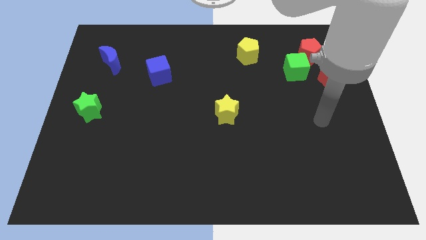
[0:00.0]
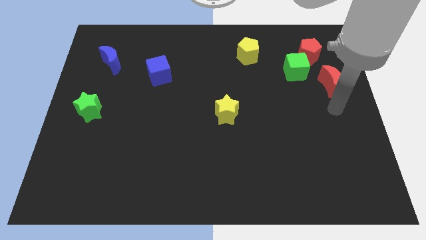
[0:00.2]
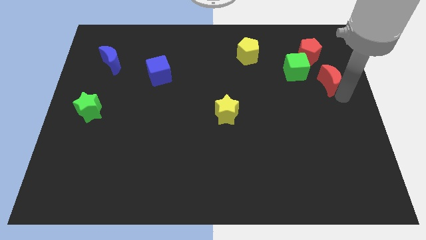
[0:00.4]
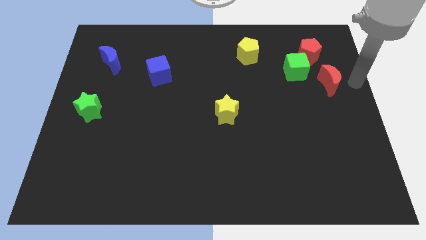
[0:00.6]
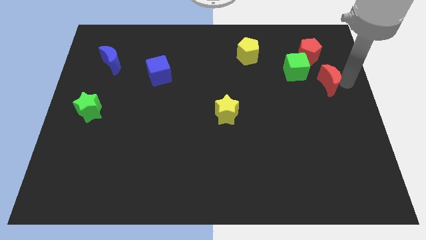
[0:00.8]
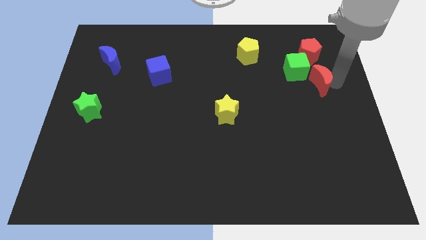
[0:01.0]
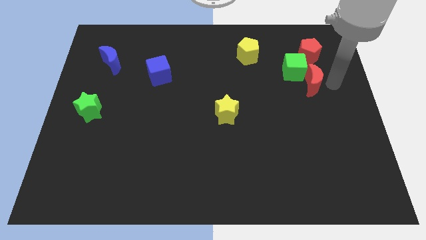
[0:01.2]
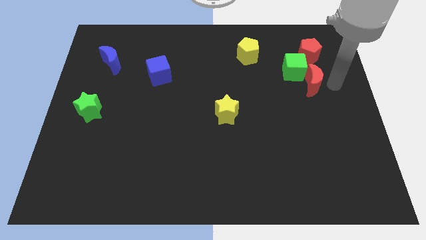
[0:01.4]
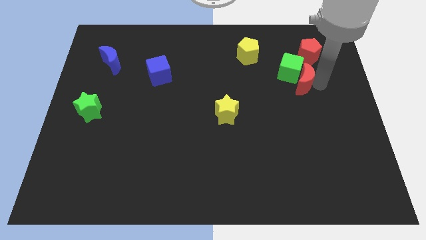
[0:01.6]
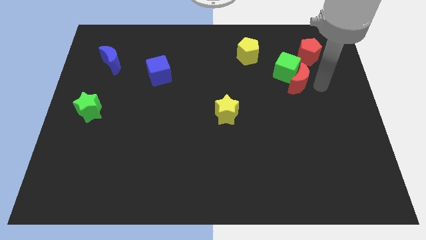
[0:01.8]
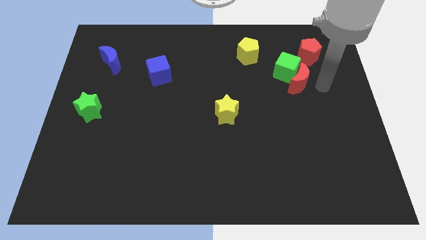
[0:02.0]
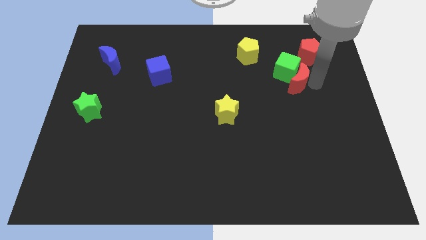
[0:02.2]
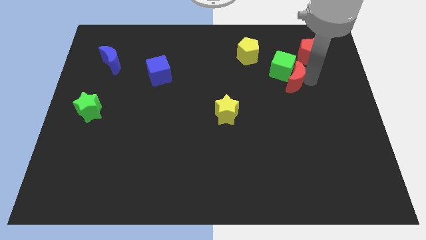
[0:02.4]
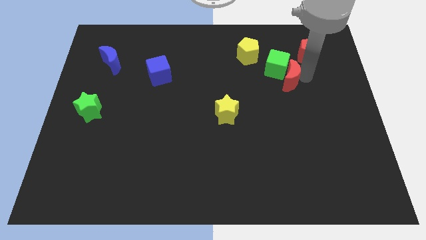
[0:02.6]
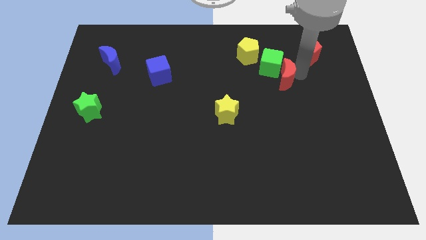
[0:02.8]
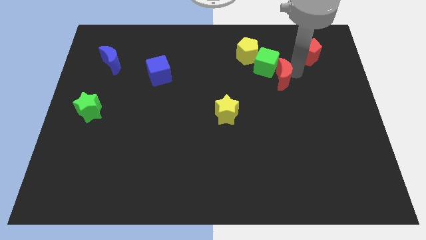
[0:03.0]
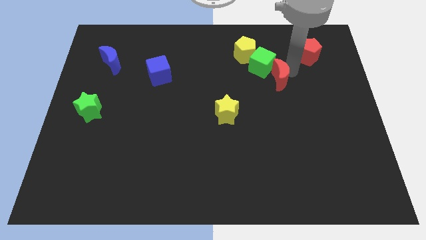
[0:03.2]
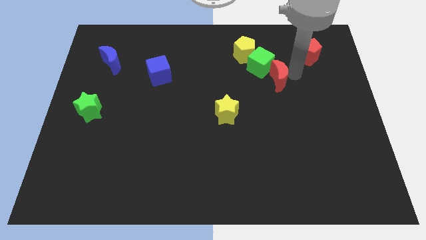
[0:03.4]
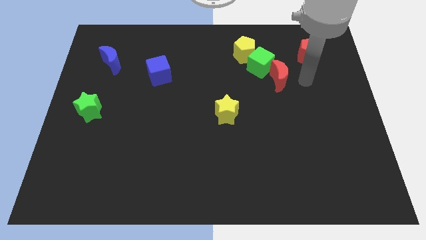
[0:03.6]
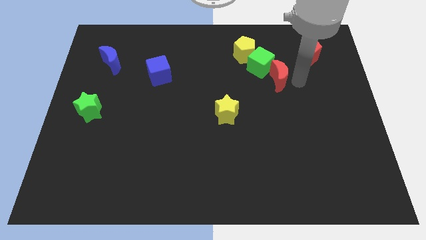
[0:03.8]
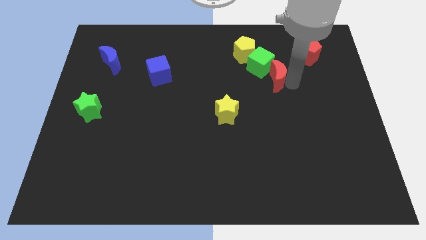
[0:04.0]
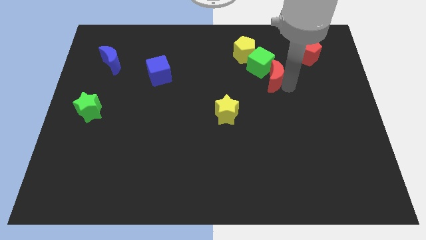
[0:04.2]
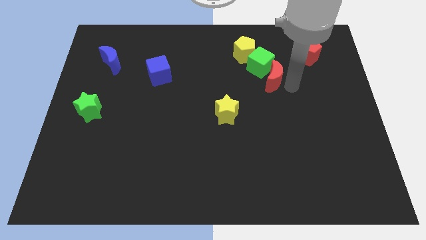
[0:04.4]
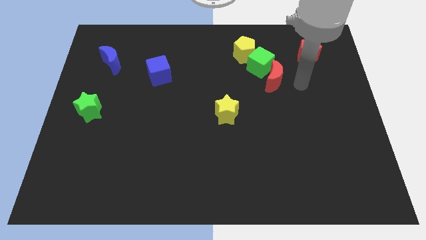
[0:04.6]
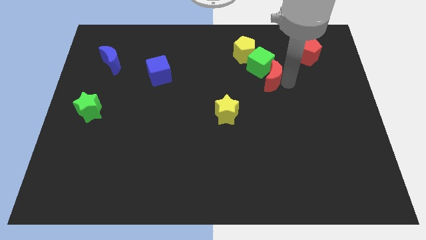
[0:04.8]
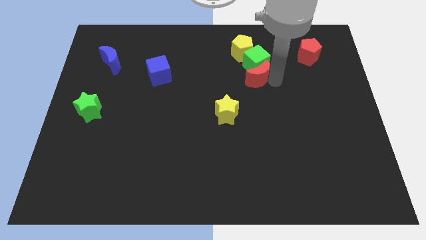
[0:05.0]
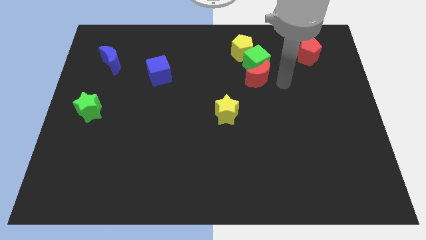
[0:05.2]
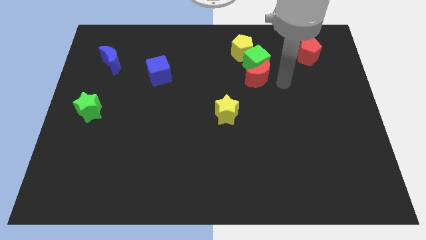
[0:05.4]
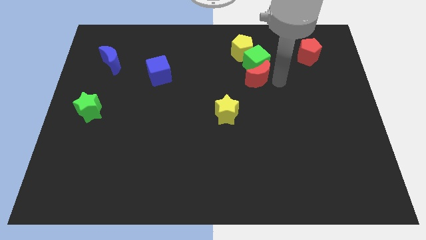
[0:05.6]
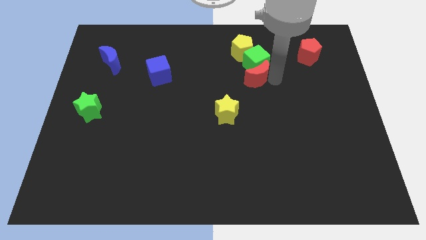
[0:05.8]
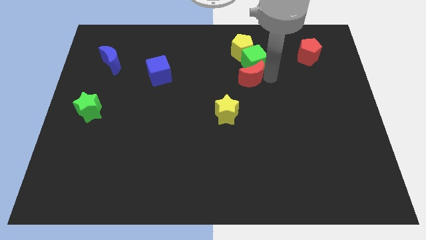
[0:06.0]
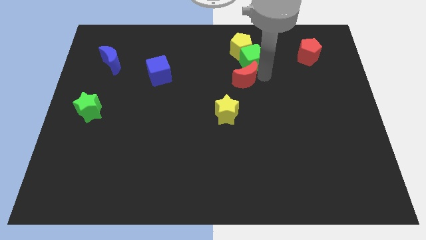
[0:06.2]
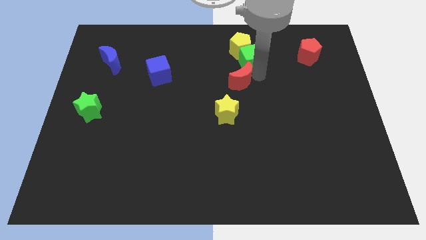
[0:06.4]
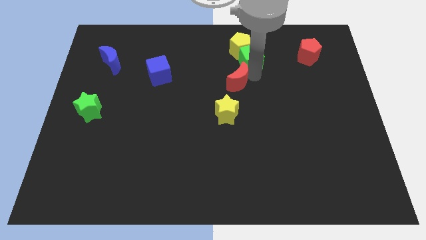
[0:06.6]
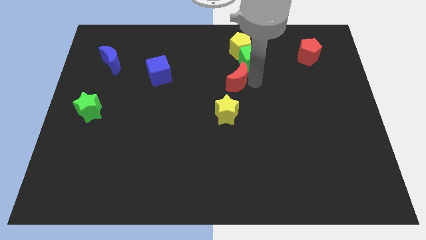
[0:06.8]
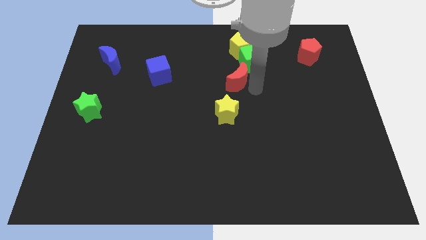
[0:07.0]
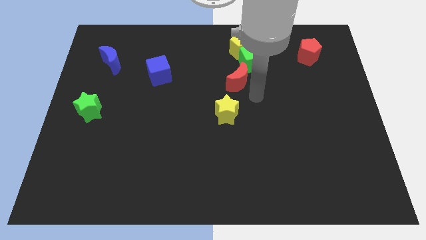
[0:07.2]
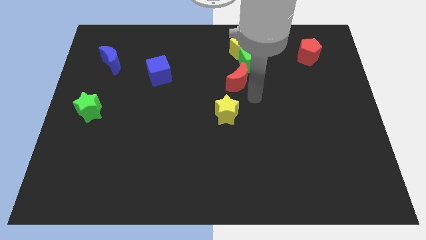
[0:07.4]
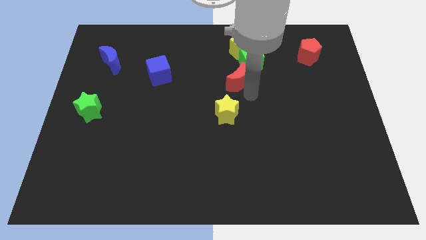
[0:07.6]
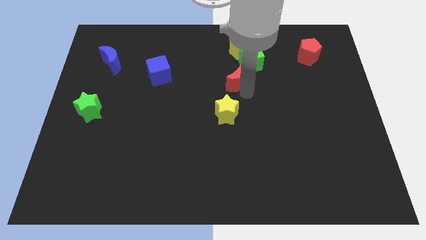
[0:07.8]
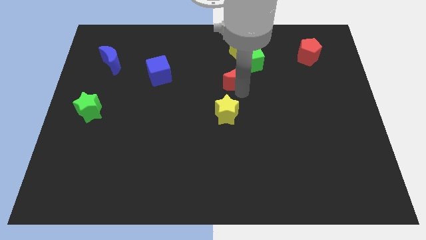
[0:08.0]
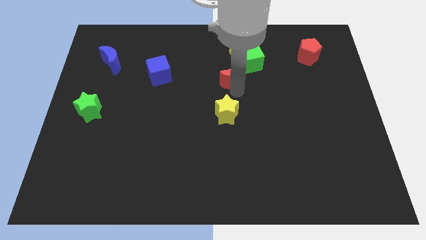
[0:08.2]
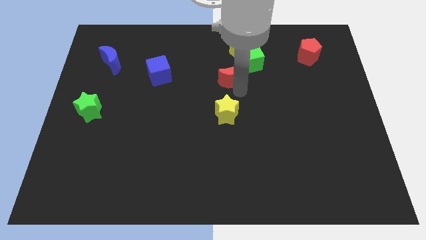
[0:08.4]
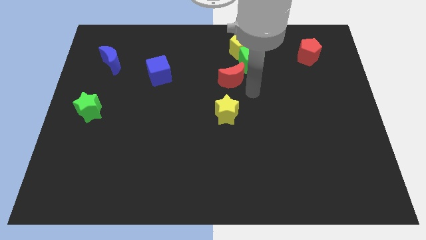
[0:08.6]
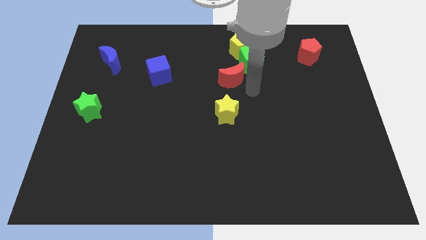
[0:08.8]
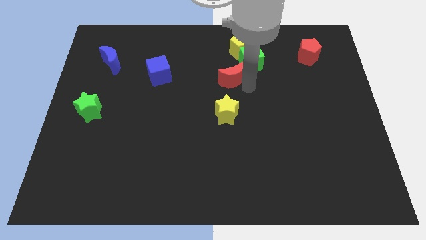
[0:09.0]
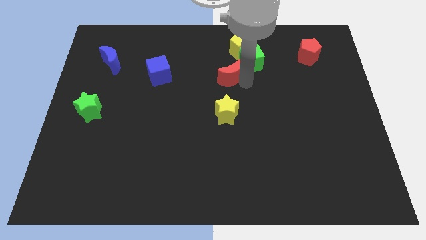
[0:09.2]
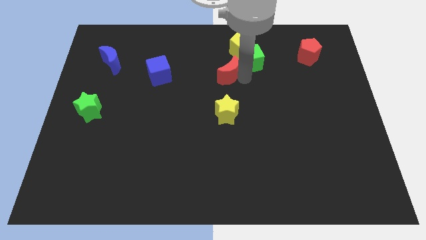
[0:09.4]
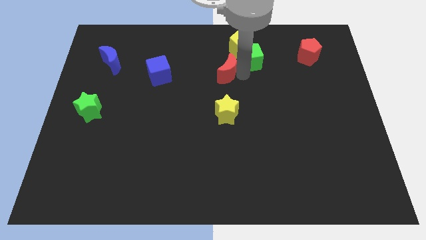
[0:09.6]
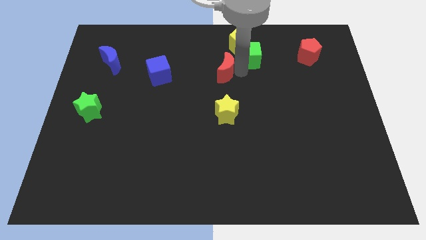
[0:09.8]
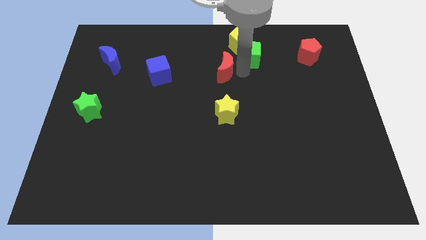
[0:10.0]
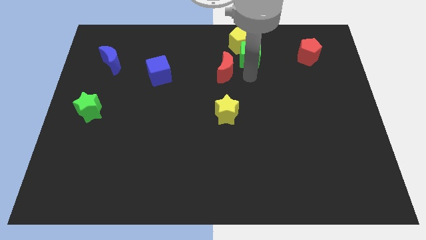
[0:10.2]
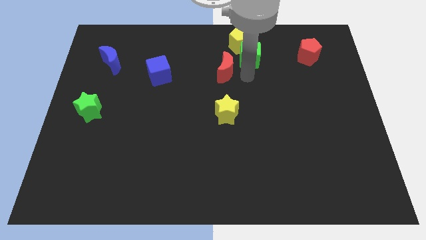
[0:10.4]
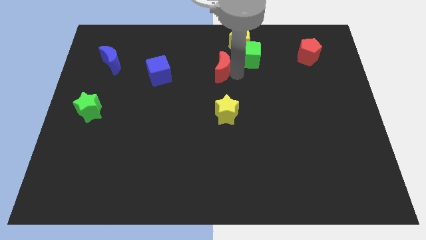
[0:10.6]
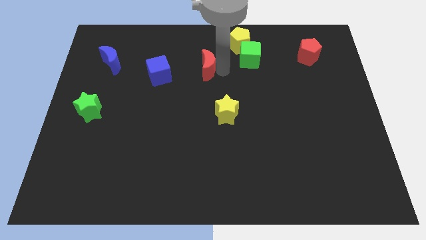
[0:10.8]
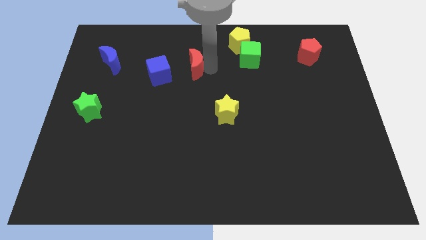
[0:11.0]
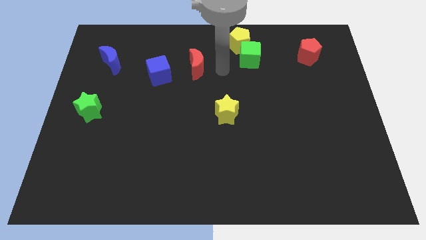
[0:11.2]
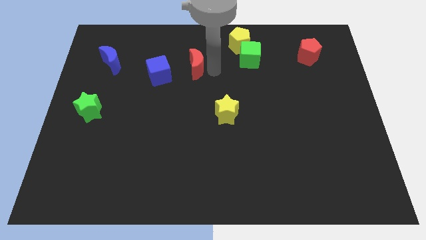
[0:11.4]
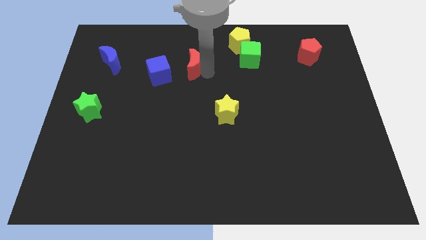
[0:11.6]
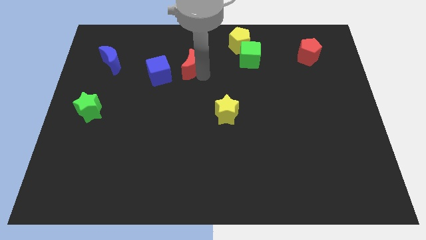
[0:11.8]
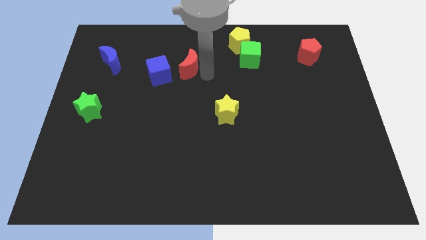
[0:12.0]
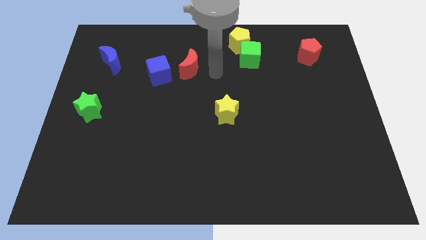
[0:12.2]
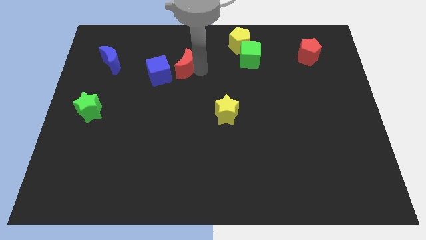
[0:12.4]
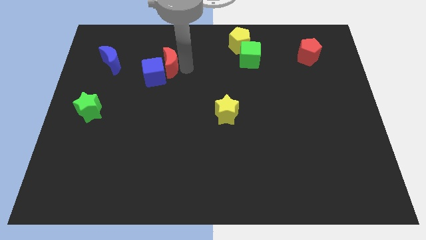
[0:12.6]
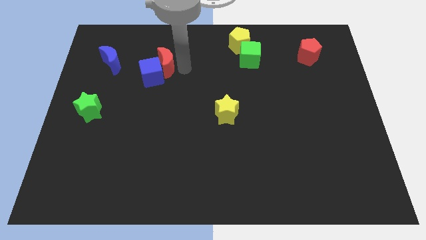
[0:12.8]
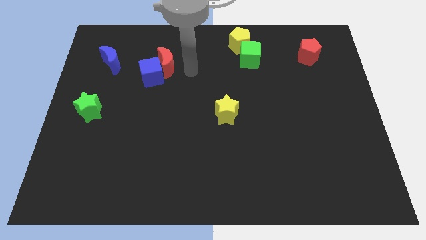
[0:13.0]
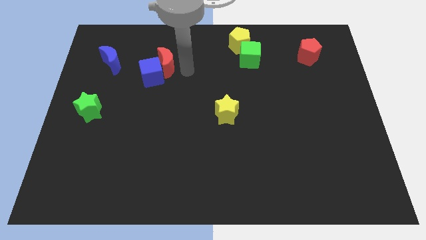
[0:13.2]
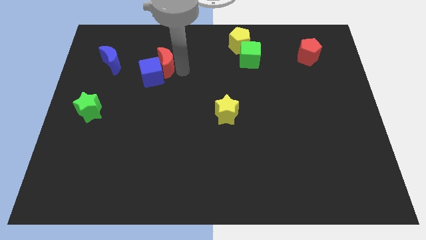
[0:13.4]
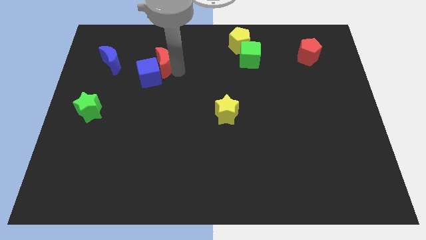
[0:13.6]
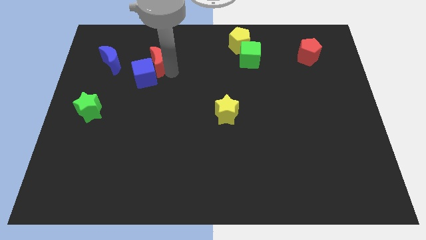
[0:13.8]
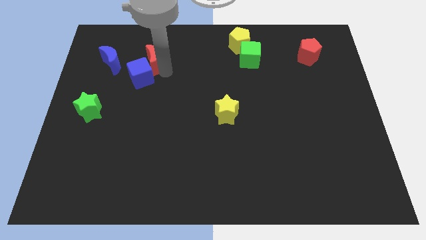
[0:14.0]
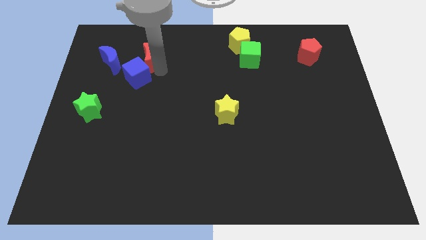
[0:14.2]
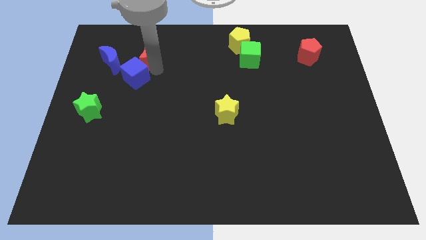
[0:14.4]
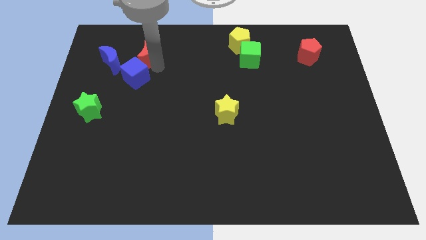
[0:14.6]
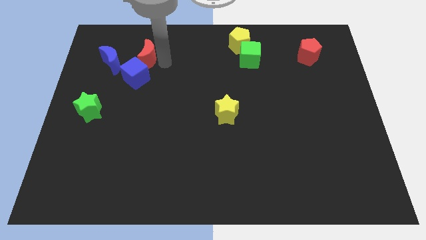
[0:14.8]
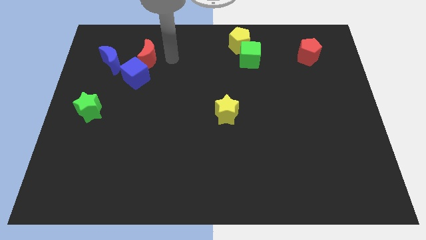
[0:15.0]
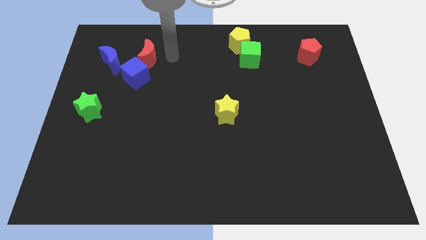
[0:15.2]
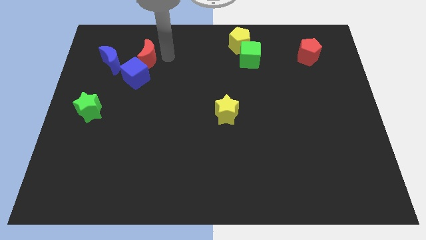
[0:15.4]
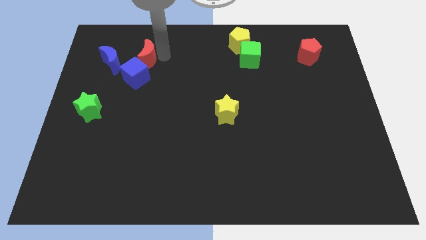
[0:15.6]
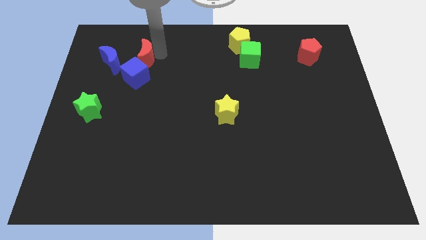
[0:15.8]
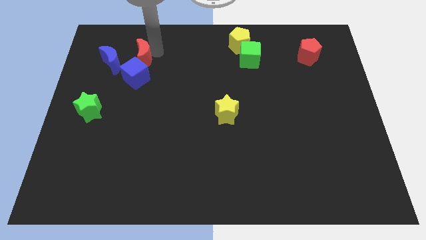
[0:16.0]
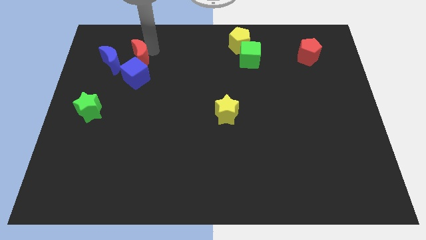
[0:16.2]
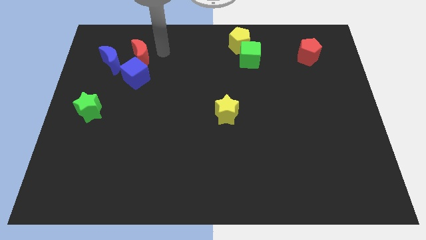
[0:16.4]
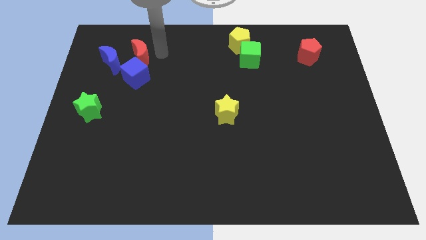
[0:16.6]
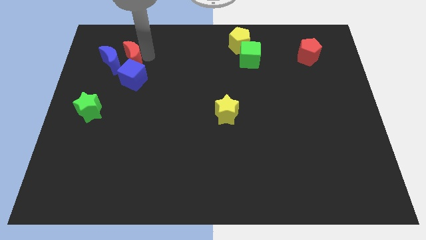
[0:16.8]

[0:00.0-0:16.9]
put the red moon to the blue moon
